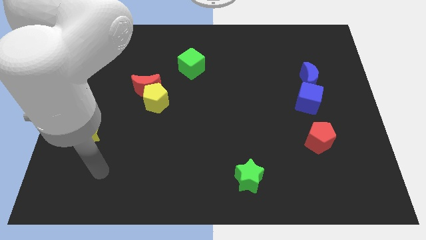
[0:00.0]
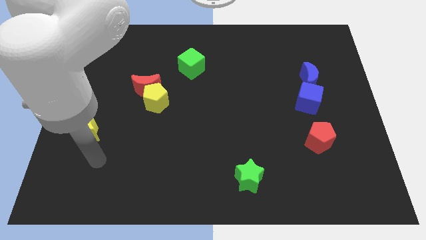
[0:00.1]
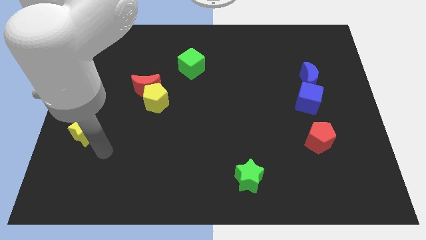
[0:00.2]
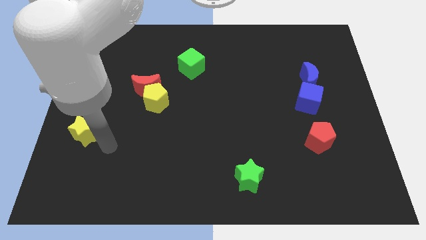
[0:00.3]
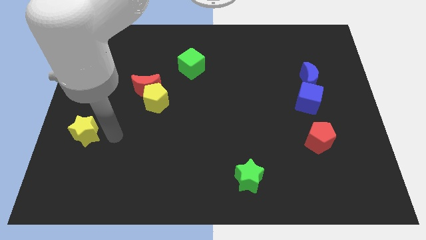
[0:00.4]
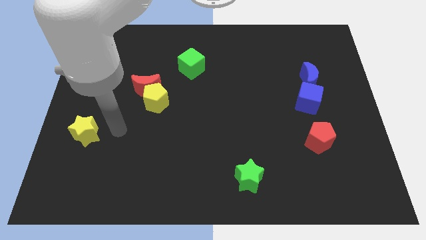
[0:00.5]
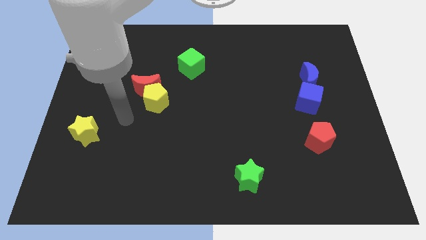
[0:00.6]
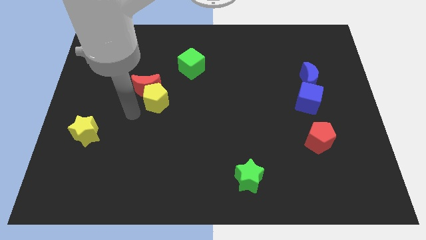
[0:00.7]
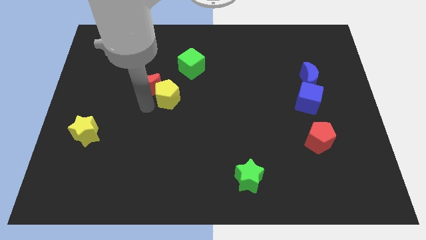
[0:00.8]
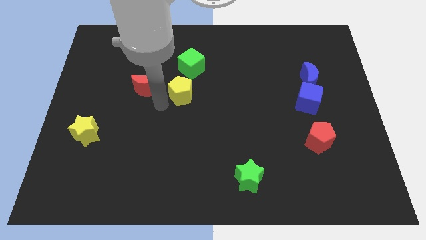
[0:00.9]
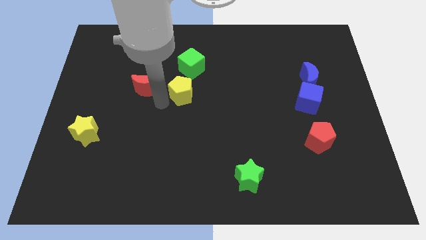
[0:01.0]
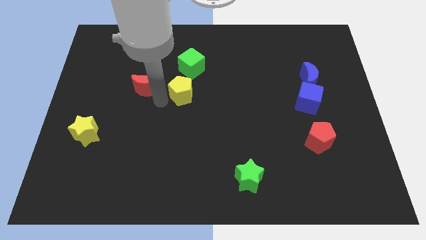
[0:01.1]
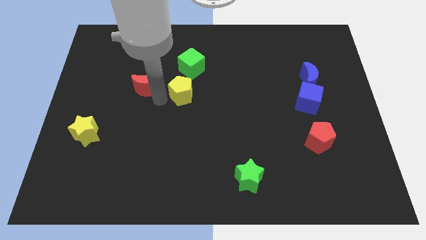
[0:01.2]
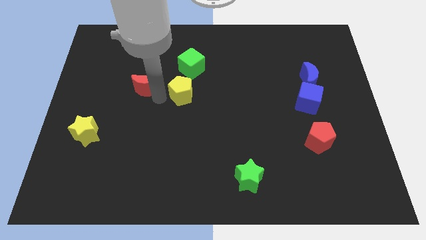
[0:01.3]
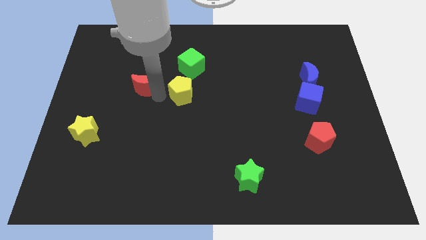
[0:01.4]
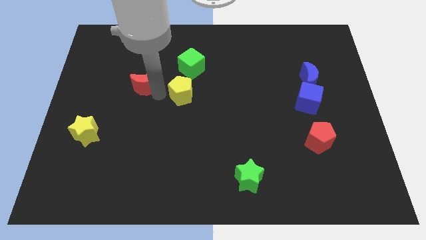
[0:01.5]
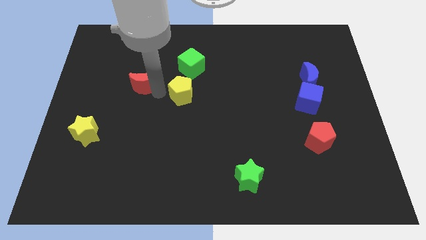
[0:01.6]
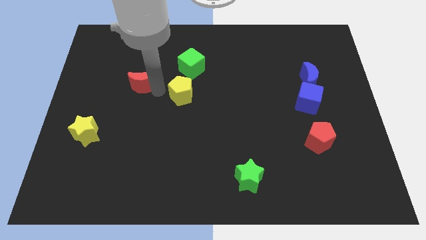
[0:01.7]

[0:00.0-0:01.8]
move the red moon away from the yellow pentagon

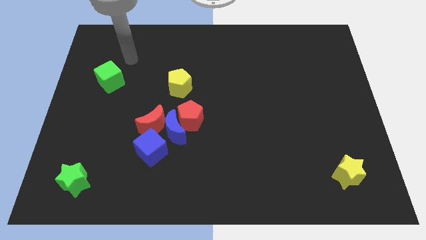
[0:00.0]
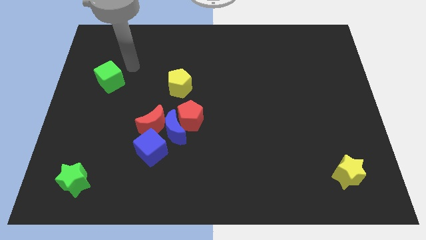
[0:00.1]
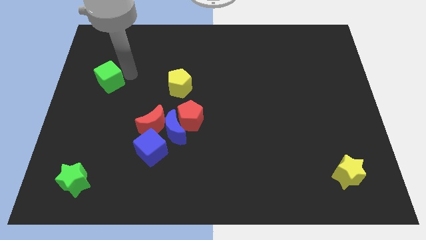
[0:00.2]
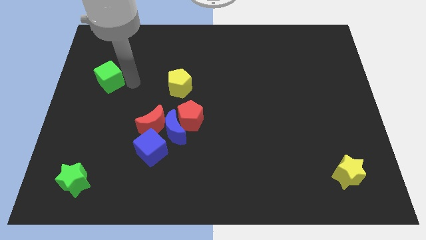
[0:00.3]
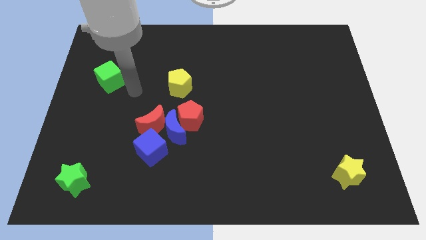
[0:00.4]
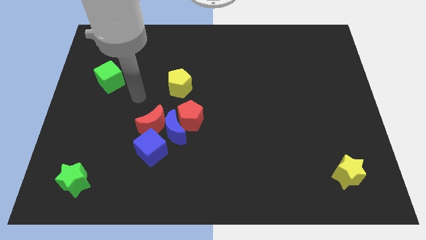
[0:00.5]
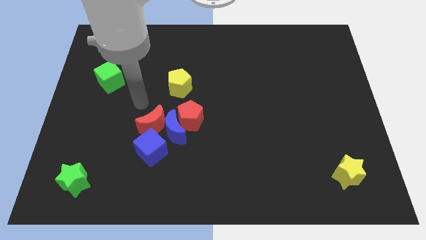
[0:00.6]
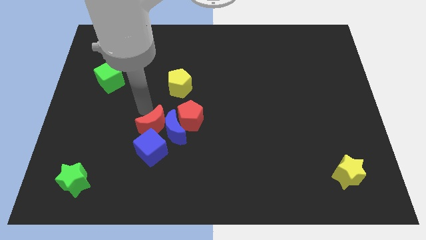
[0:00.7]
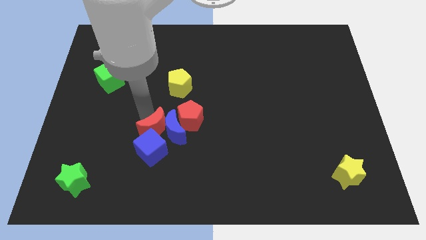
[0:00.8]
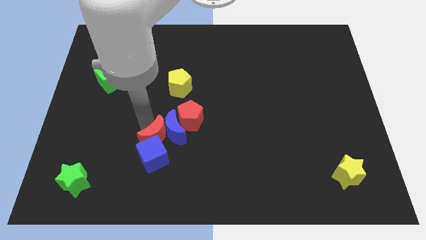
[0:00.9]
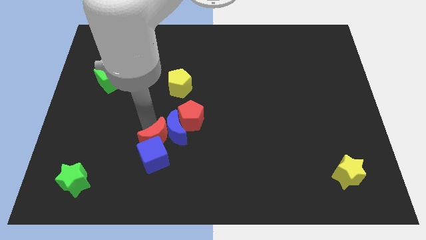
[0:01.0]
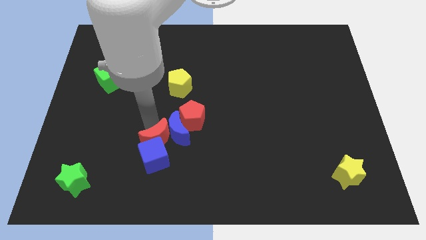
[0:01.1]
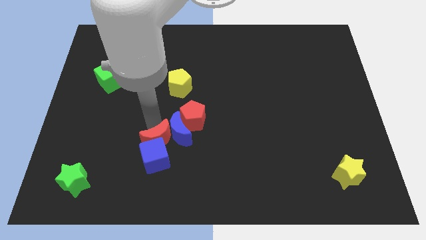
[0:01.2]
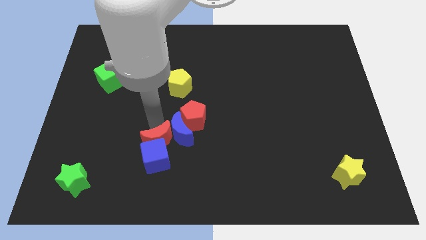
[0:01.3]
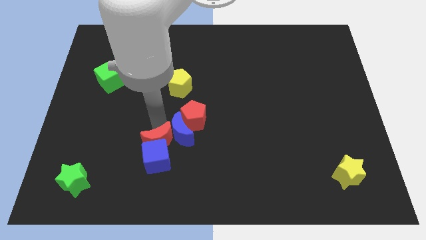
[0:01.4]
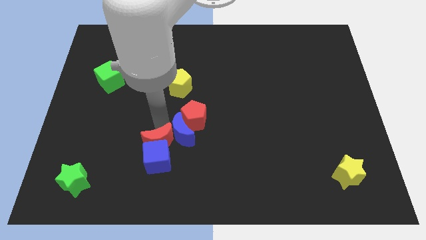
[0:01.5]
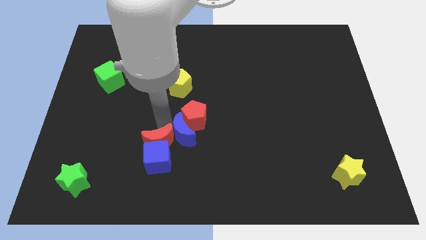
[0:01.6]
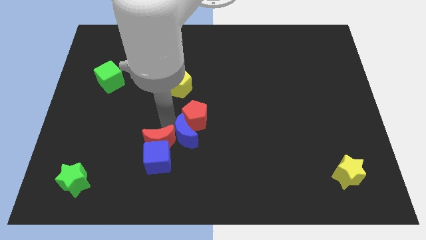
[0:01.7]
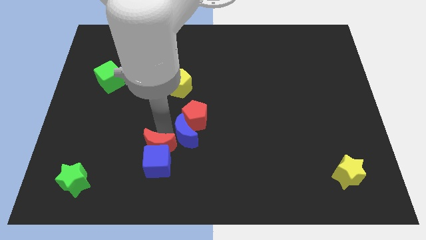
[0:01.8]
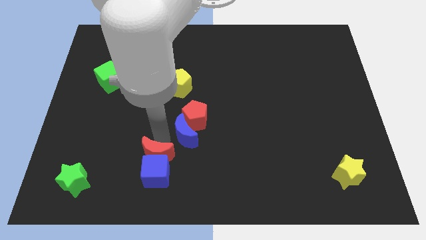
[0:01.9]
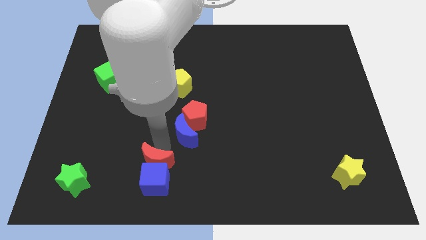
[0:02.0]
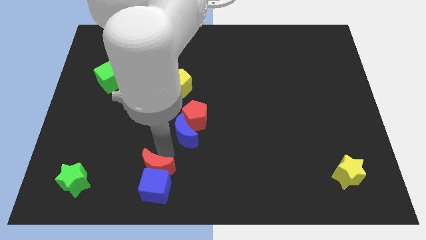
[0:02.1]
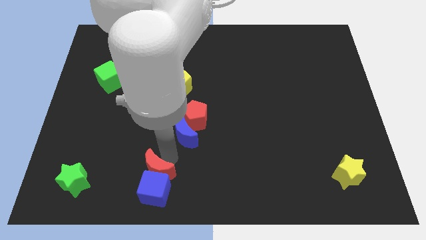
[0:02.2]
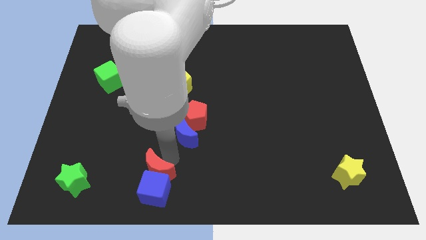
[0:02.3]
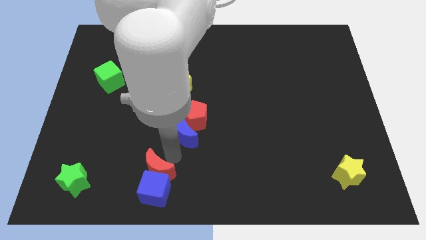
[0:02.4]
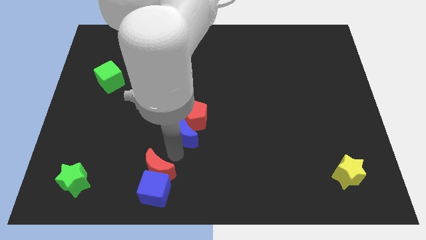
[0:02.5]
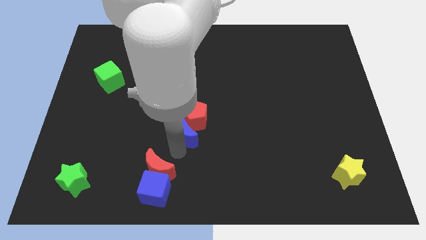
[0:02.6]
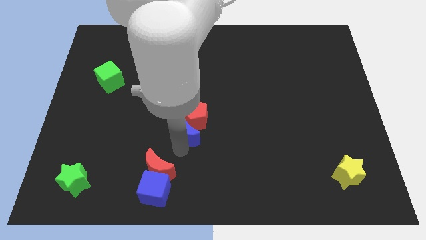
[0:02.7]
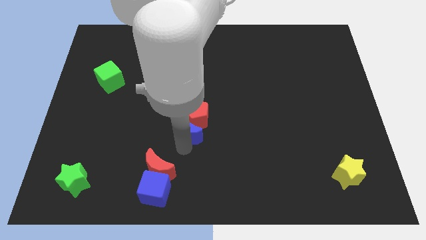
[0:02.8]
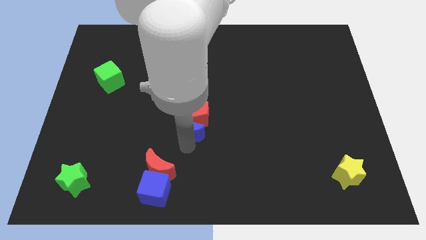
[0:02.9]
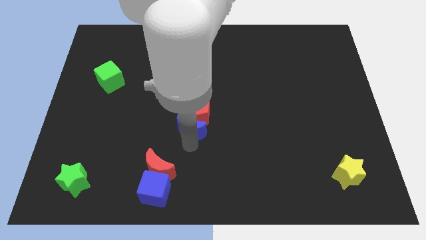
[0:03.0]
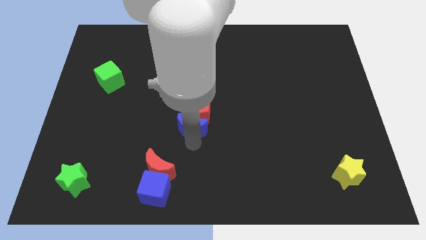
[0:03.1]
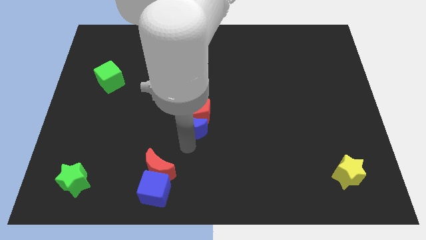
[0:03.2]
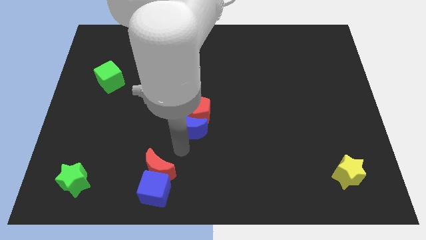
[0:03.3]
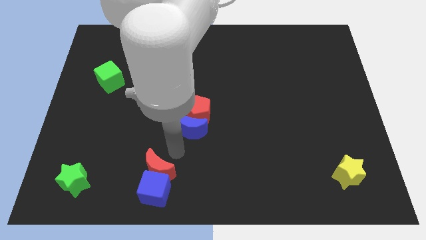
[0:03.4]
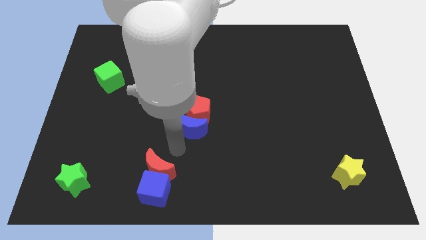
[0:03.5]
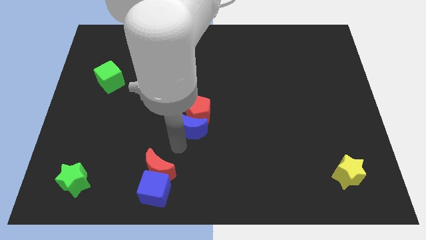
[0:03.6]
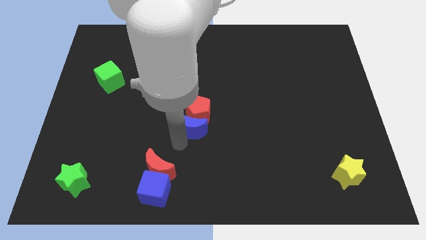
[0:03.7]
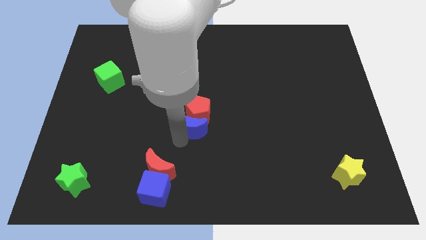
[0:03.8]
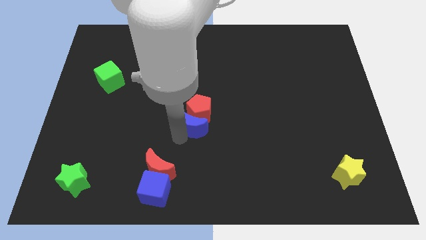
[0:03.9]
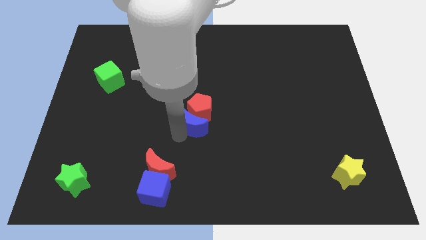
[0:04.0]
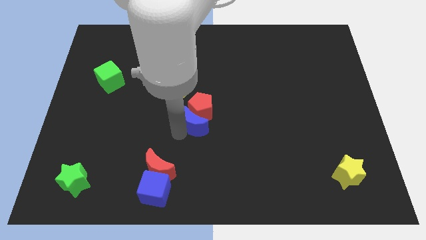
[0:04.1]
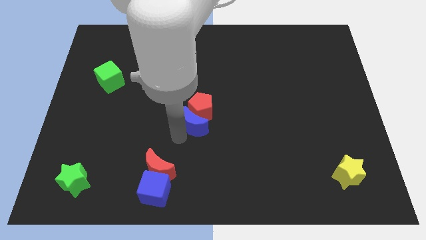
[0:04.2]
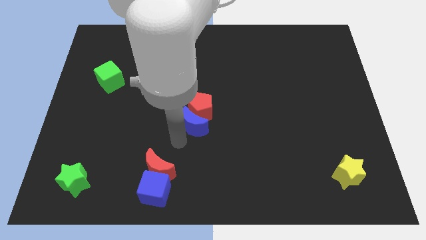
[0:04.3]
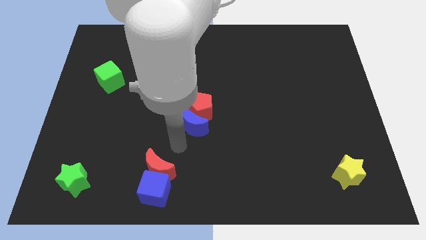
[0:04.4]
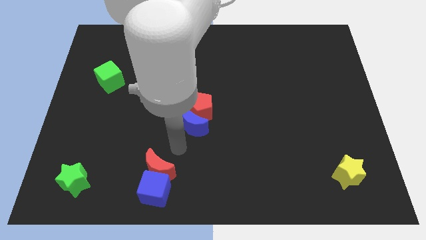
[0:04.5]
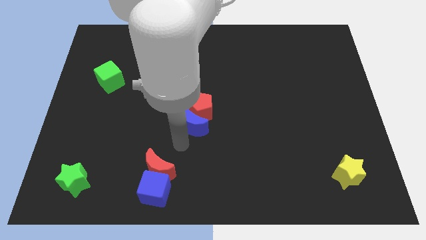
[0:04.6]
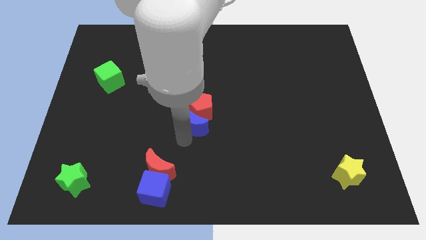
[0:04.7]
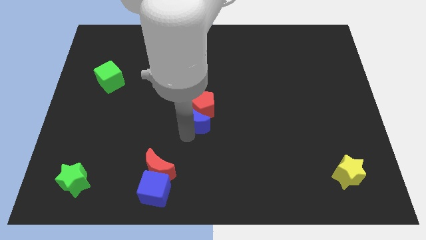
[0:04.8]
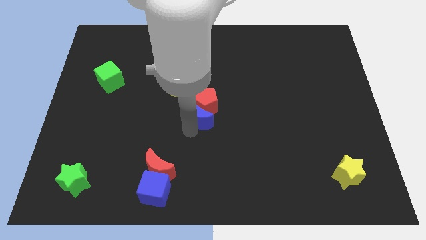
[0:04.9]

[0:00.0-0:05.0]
move the blue moon away from the group

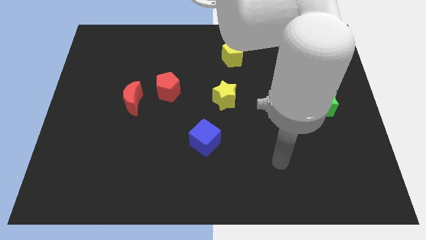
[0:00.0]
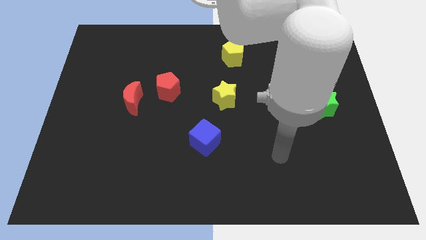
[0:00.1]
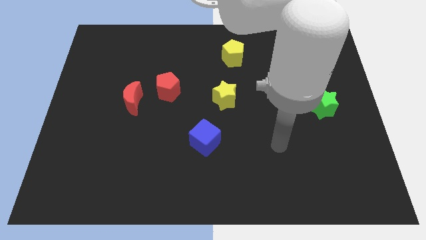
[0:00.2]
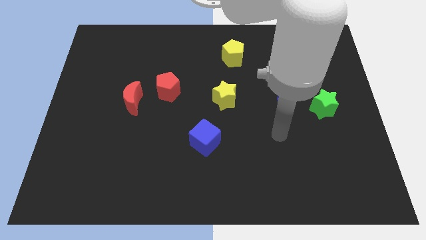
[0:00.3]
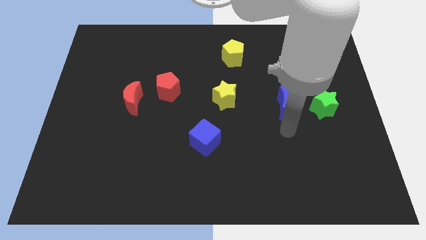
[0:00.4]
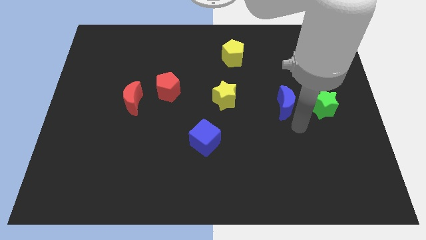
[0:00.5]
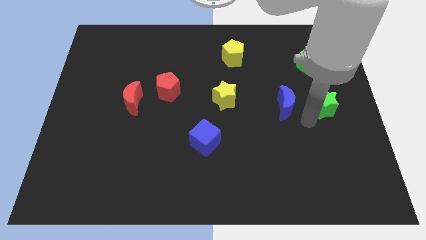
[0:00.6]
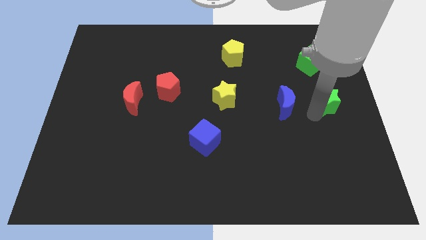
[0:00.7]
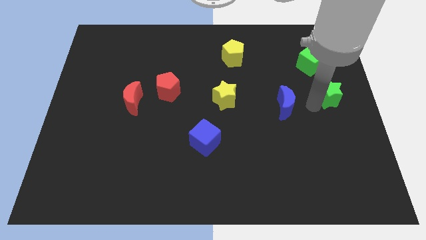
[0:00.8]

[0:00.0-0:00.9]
pull the blue moon apart from the green star

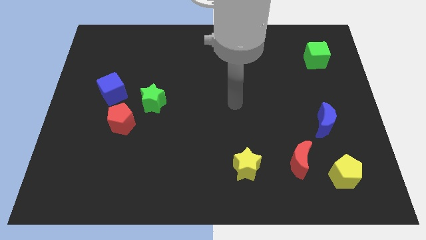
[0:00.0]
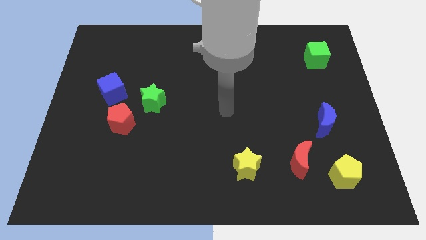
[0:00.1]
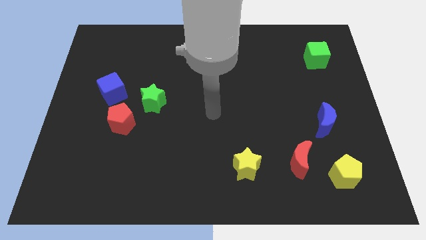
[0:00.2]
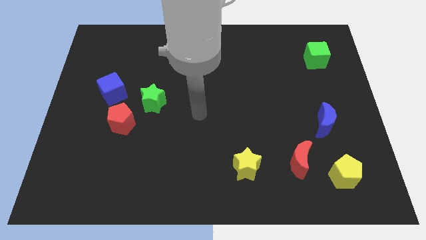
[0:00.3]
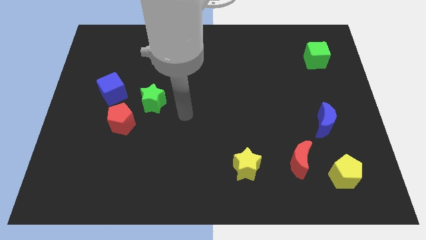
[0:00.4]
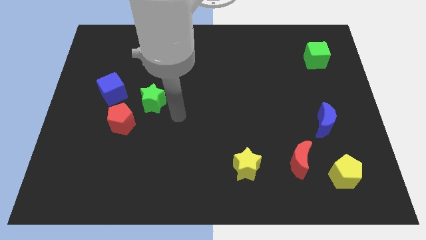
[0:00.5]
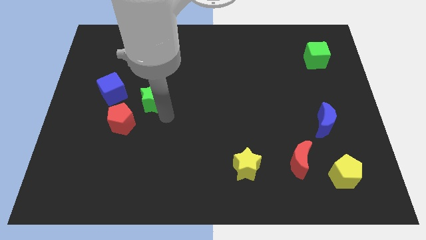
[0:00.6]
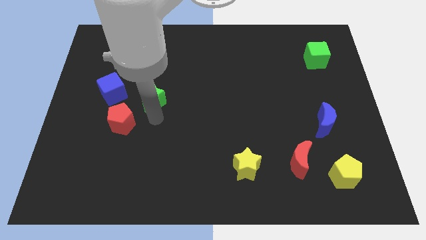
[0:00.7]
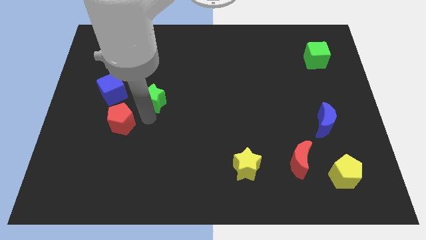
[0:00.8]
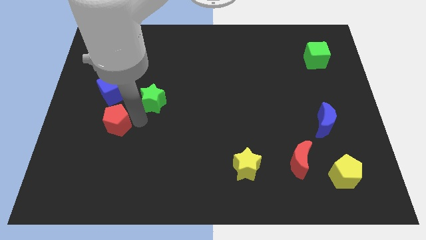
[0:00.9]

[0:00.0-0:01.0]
separate the green star from the red pentagon

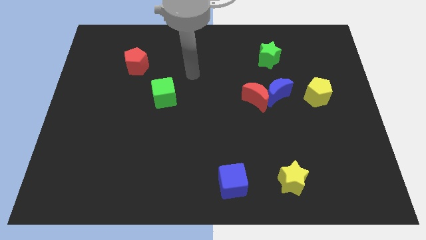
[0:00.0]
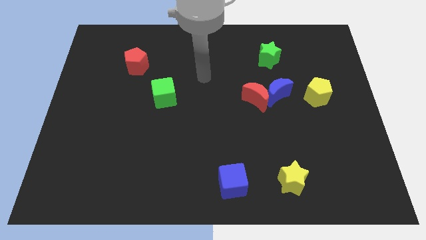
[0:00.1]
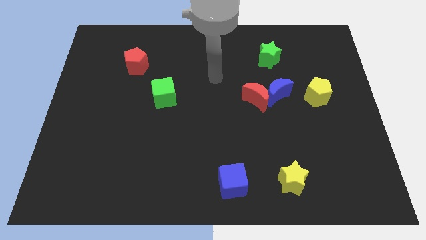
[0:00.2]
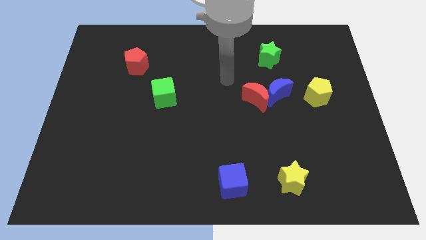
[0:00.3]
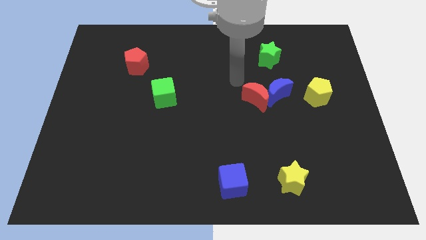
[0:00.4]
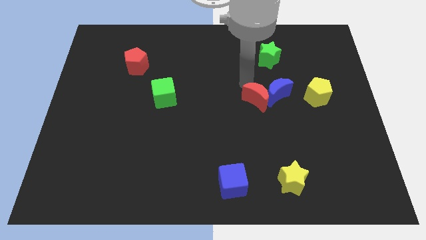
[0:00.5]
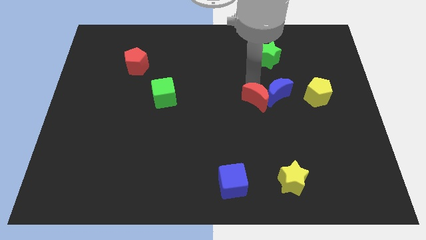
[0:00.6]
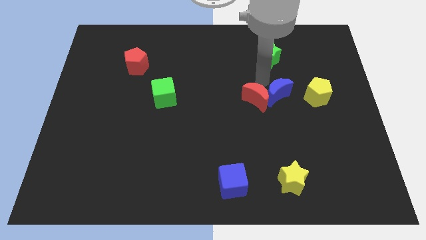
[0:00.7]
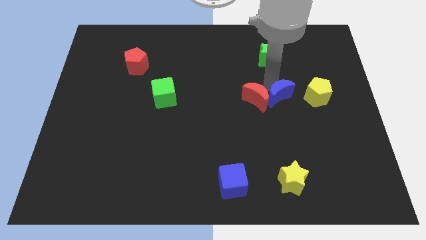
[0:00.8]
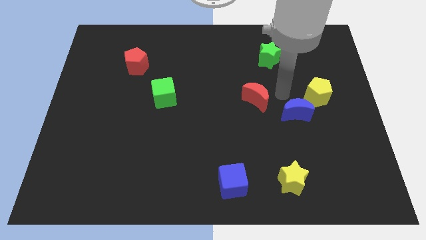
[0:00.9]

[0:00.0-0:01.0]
move the red moon away from the blue moon
